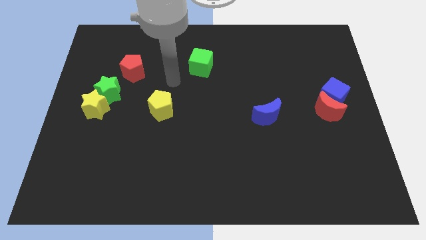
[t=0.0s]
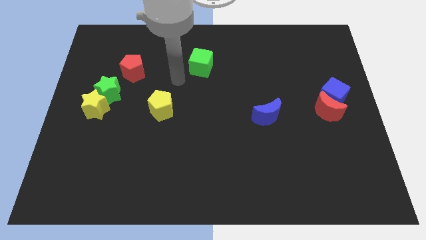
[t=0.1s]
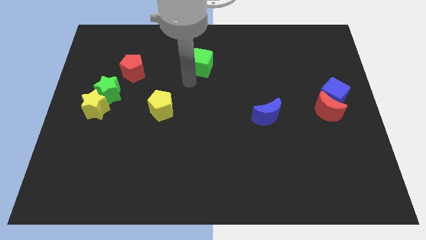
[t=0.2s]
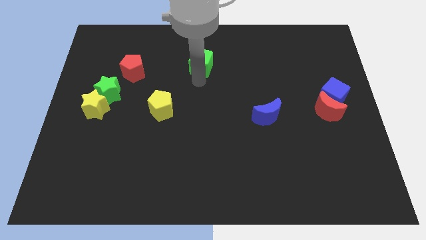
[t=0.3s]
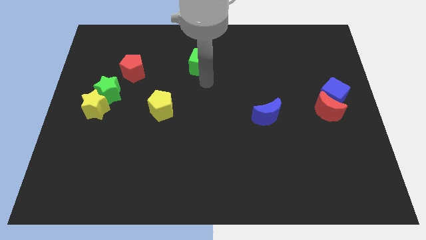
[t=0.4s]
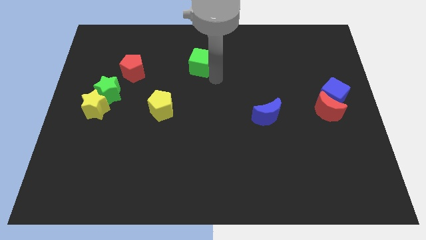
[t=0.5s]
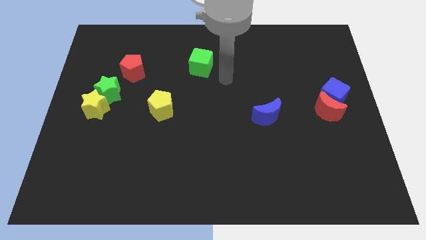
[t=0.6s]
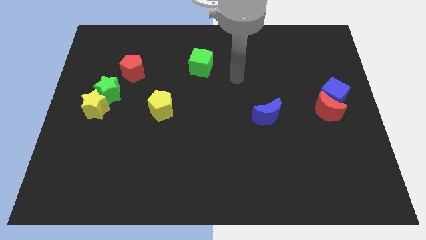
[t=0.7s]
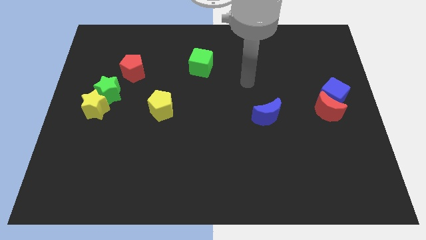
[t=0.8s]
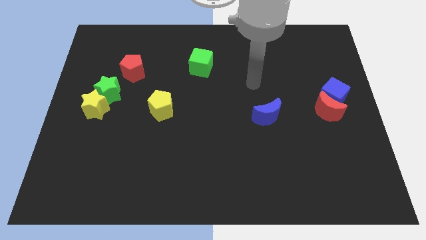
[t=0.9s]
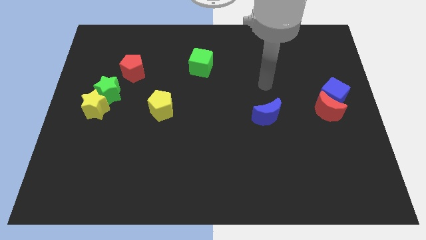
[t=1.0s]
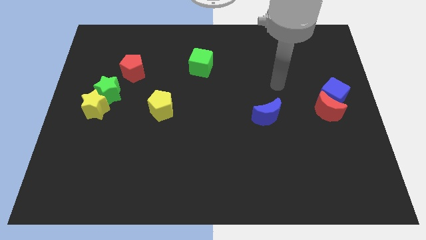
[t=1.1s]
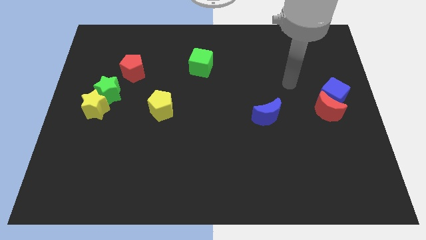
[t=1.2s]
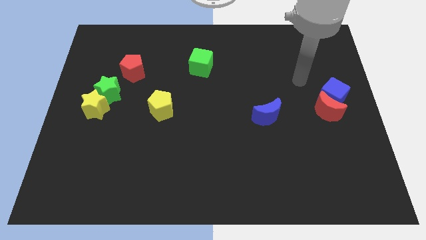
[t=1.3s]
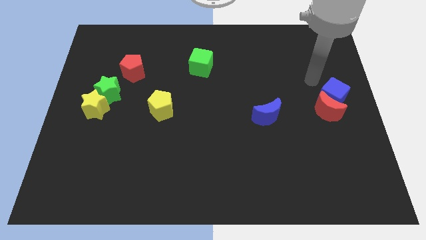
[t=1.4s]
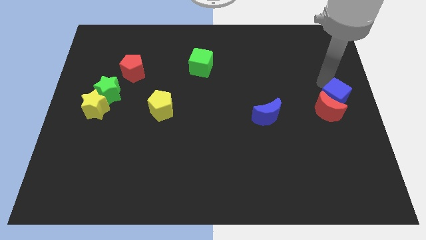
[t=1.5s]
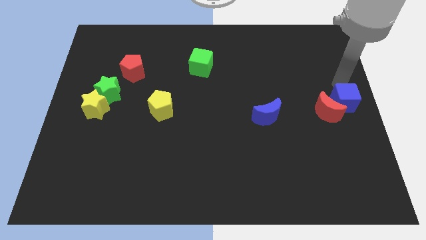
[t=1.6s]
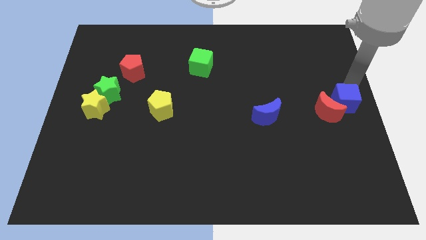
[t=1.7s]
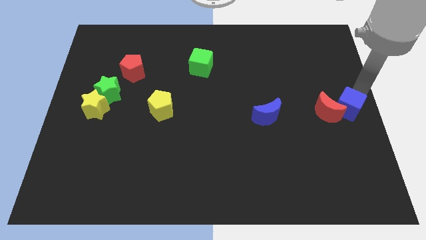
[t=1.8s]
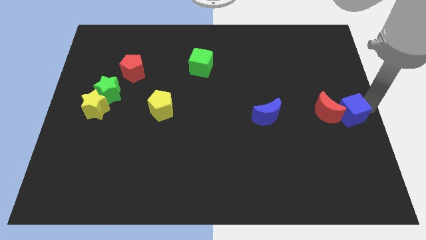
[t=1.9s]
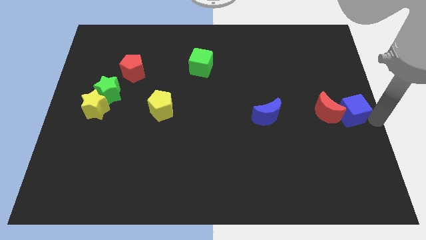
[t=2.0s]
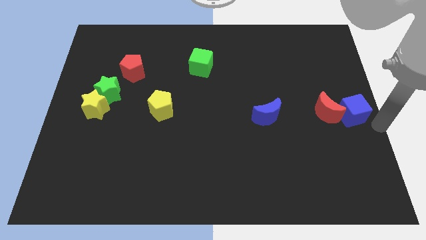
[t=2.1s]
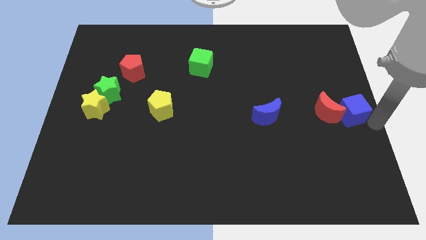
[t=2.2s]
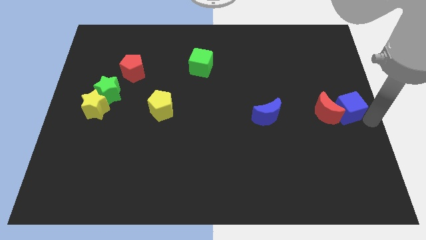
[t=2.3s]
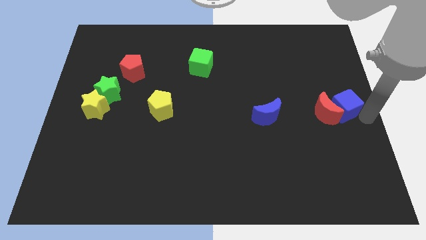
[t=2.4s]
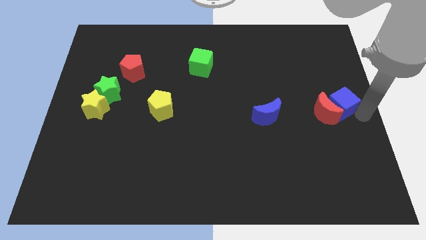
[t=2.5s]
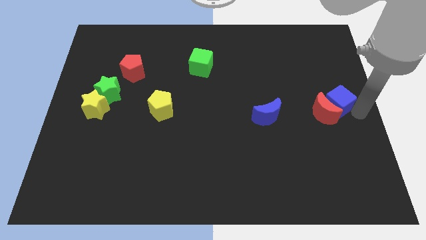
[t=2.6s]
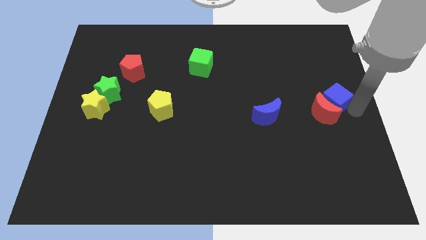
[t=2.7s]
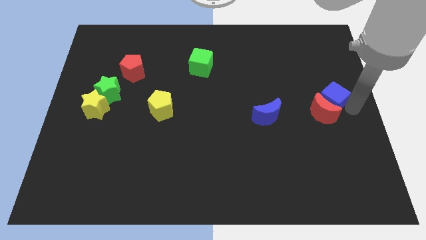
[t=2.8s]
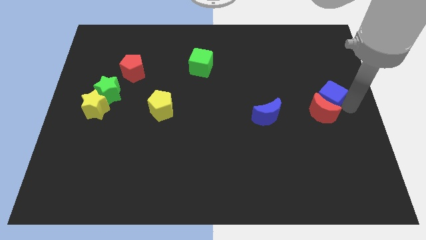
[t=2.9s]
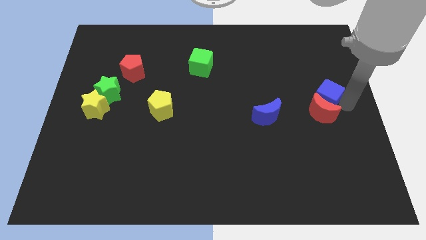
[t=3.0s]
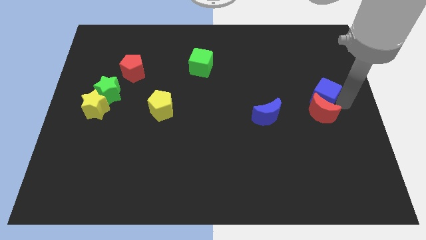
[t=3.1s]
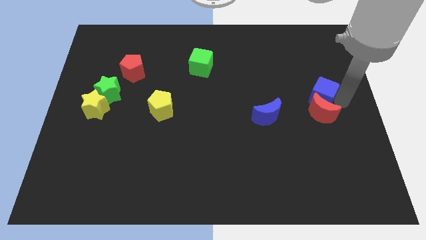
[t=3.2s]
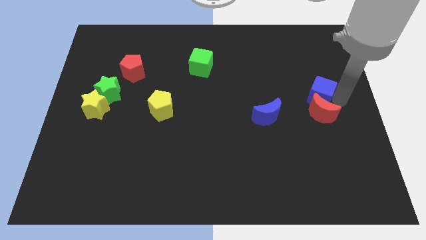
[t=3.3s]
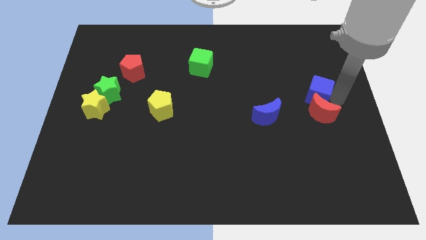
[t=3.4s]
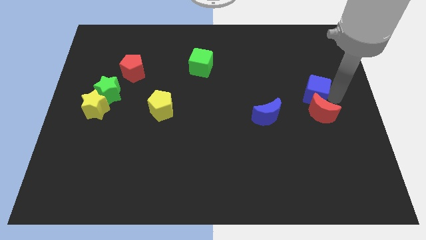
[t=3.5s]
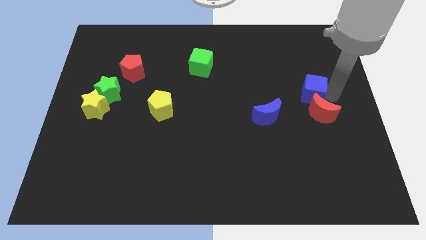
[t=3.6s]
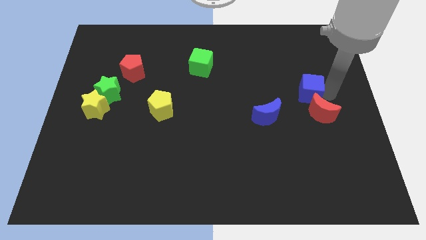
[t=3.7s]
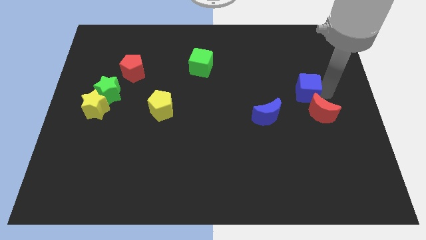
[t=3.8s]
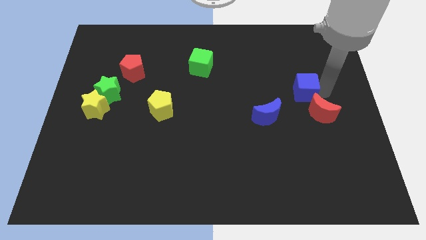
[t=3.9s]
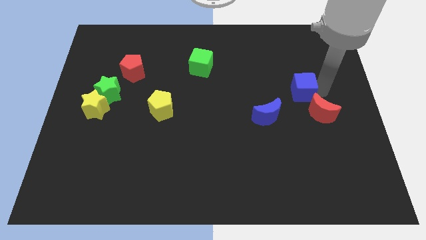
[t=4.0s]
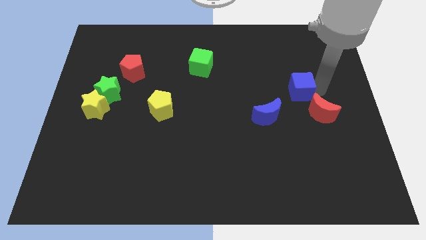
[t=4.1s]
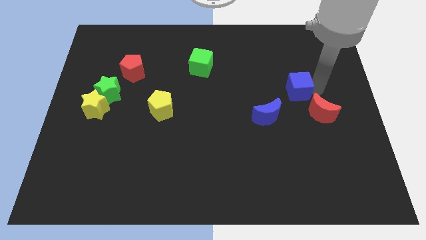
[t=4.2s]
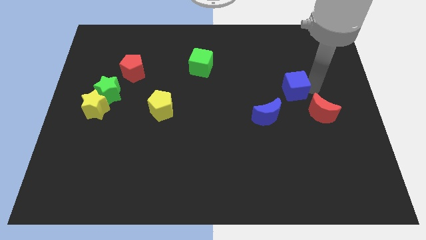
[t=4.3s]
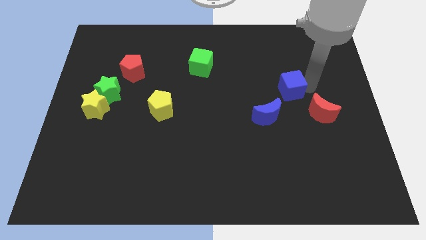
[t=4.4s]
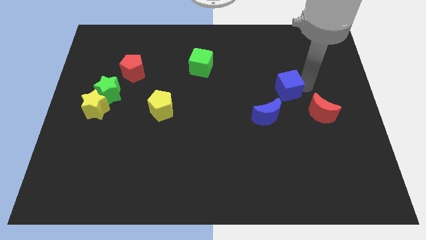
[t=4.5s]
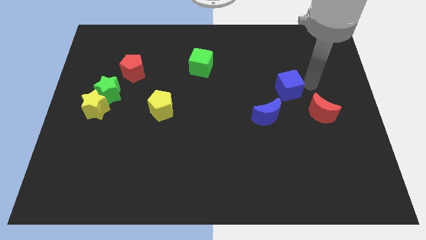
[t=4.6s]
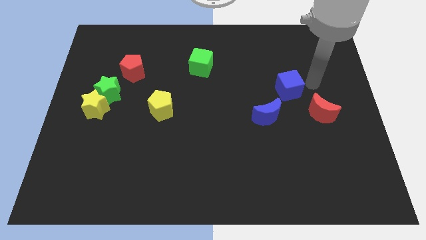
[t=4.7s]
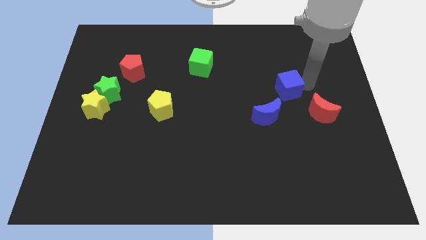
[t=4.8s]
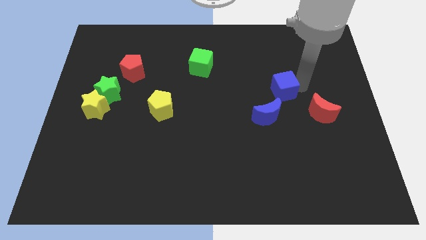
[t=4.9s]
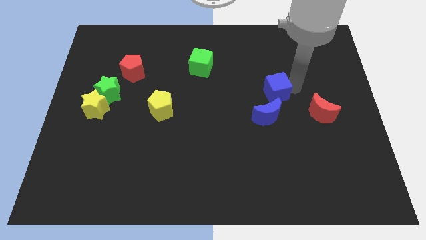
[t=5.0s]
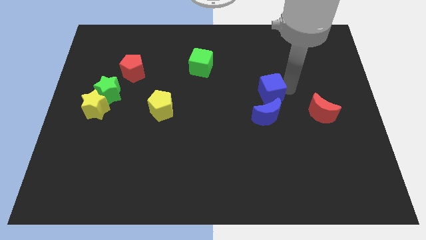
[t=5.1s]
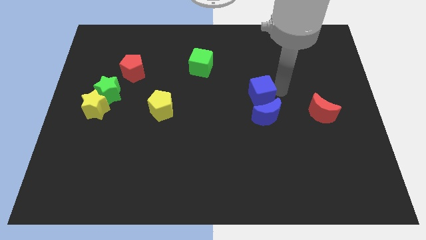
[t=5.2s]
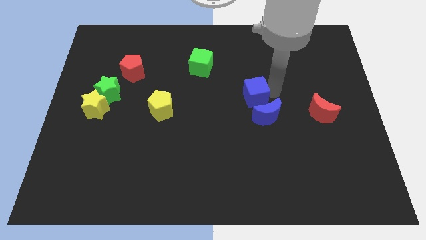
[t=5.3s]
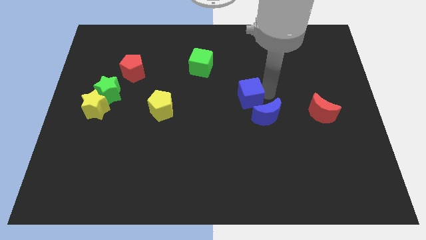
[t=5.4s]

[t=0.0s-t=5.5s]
slide the blue cube to the left

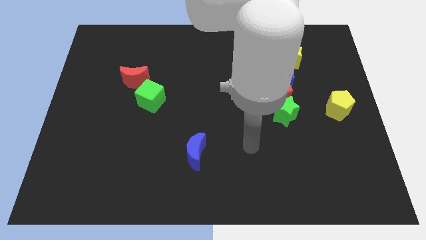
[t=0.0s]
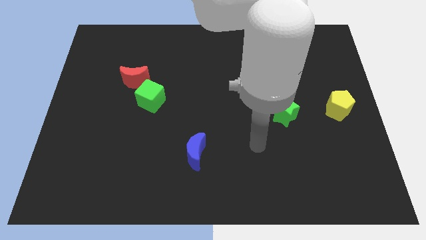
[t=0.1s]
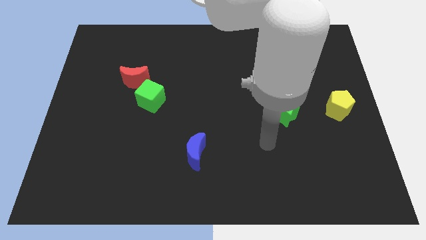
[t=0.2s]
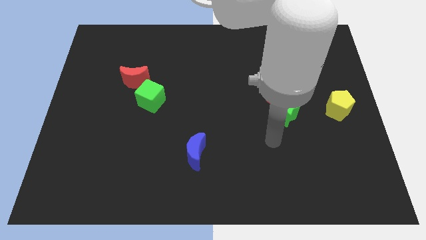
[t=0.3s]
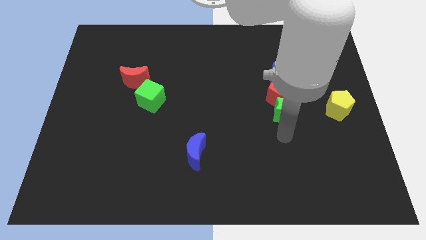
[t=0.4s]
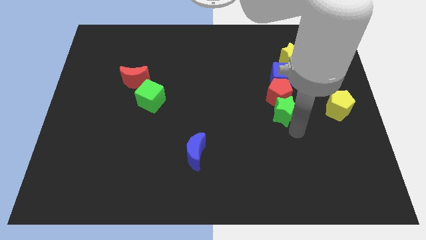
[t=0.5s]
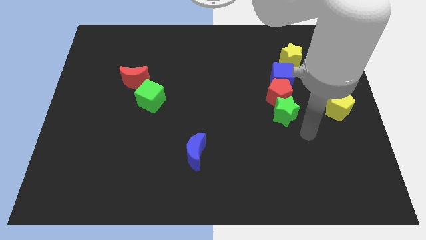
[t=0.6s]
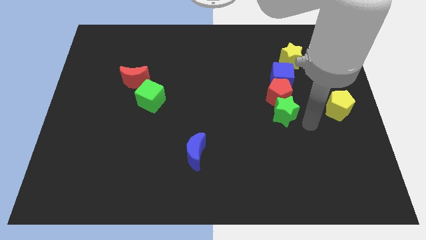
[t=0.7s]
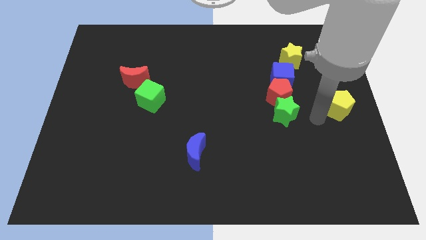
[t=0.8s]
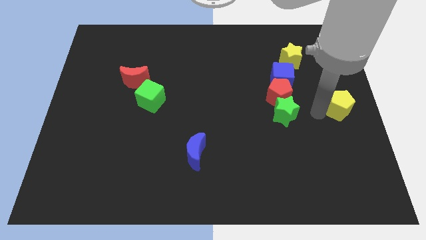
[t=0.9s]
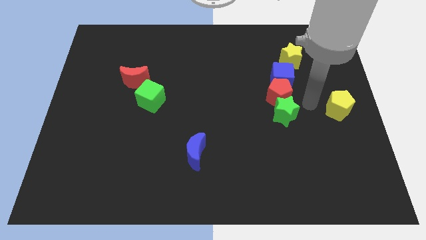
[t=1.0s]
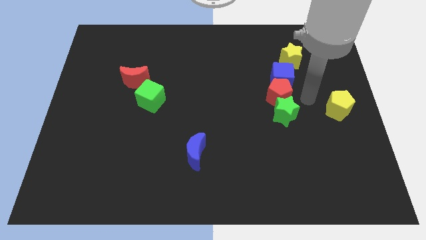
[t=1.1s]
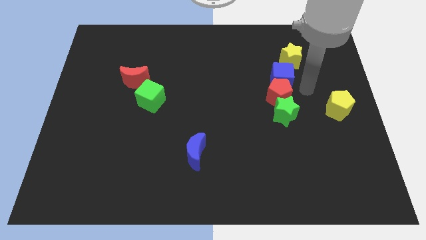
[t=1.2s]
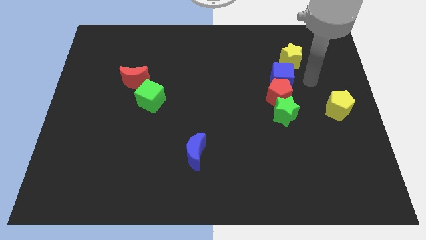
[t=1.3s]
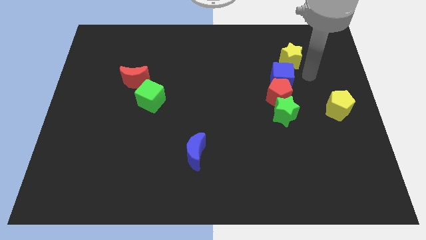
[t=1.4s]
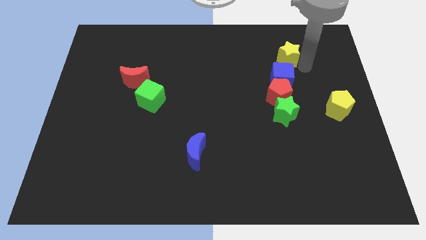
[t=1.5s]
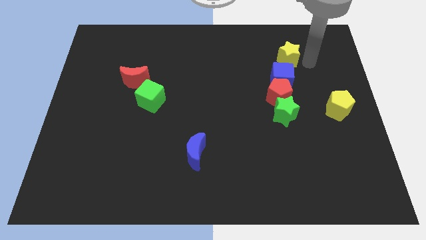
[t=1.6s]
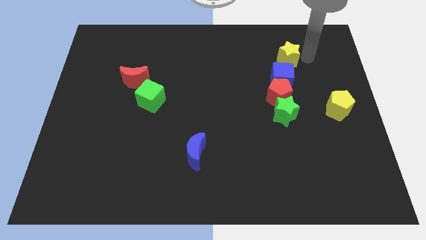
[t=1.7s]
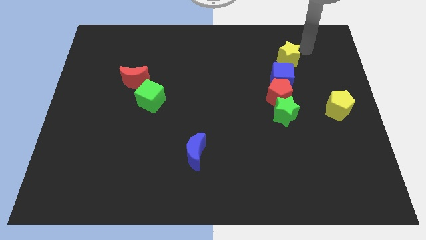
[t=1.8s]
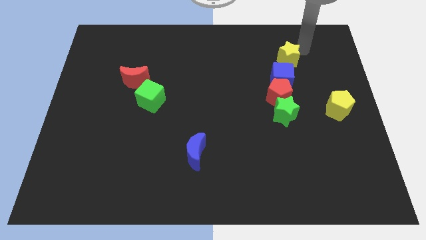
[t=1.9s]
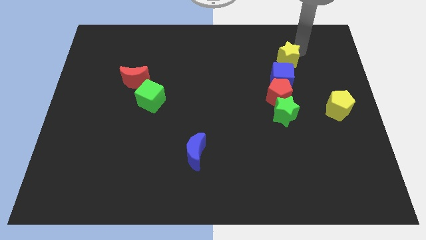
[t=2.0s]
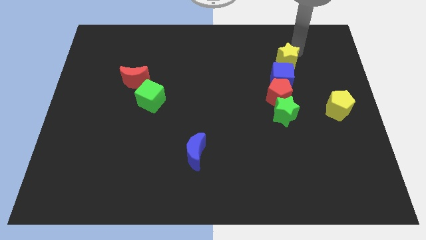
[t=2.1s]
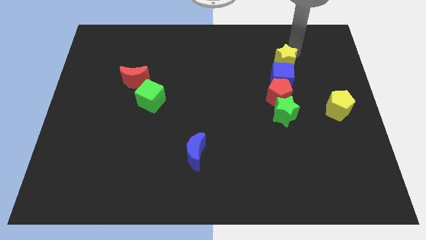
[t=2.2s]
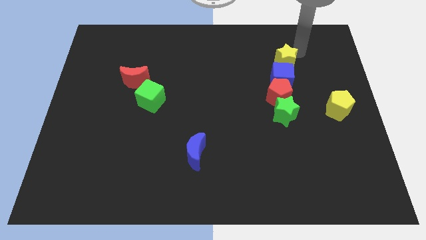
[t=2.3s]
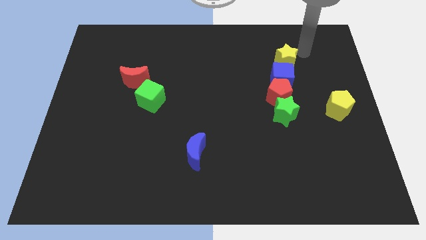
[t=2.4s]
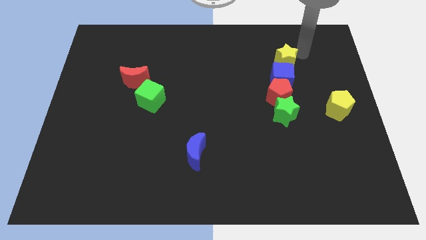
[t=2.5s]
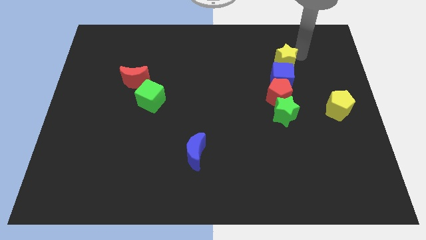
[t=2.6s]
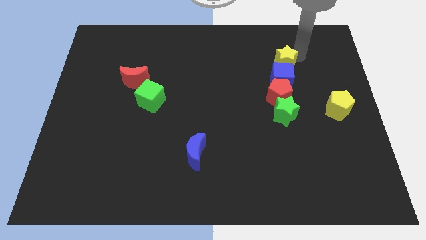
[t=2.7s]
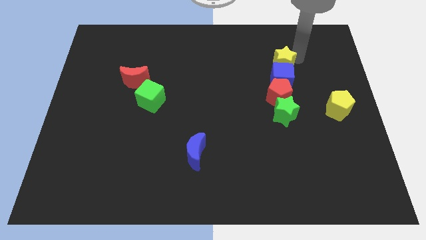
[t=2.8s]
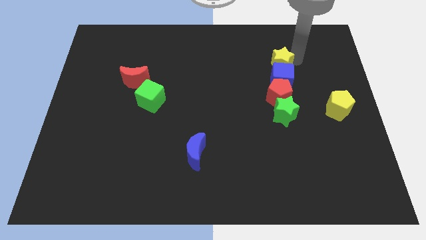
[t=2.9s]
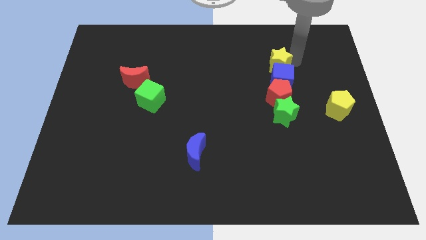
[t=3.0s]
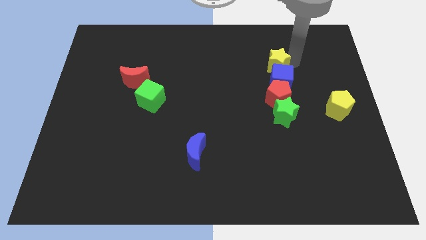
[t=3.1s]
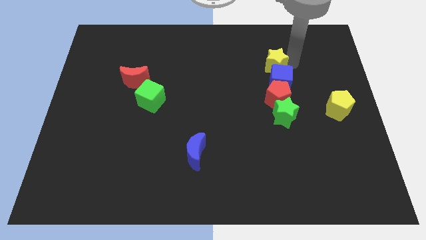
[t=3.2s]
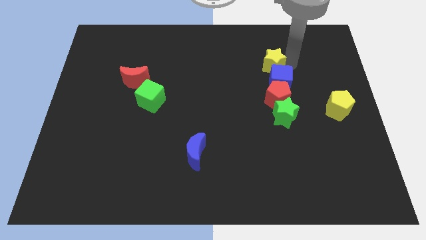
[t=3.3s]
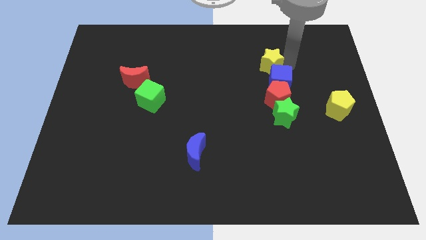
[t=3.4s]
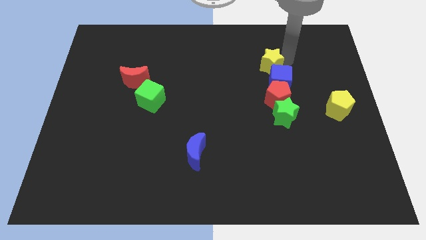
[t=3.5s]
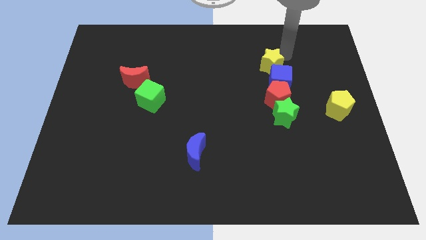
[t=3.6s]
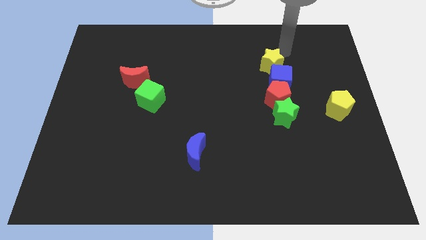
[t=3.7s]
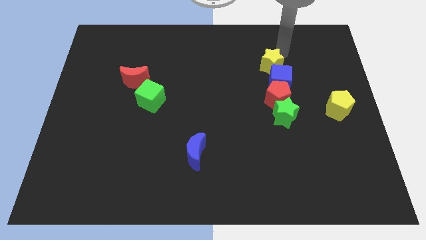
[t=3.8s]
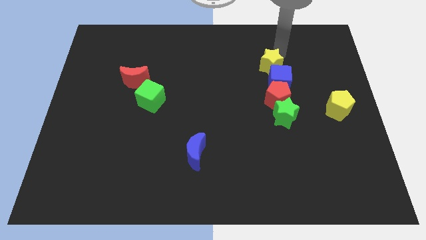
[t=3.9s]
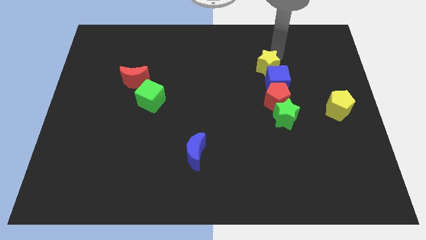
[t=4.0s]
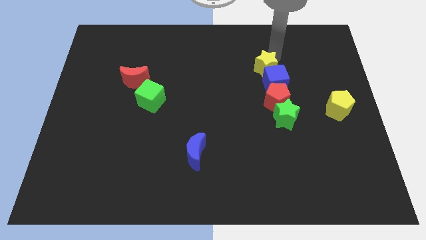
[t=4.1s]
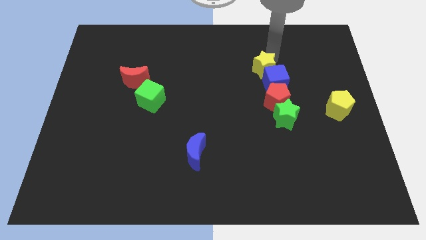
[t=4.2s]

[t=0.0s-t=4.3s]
move the yellow star a bit down and then to the left
